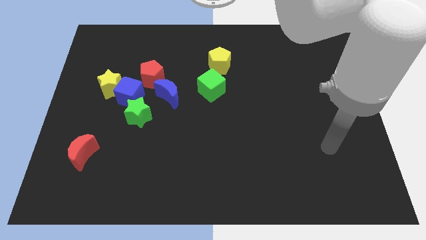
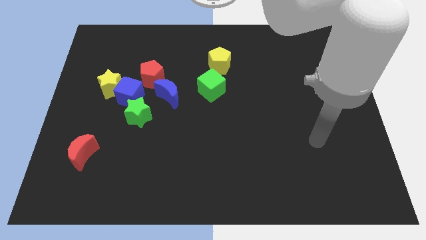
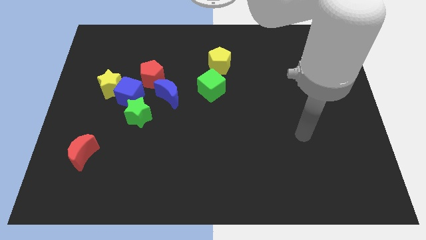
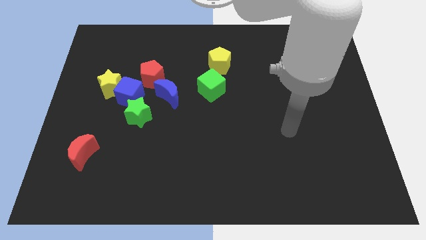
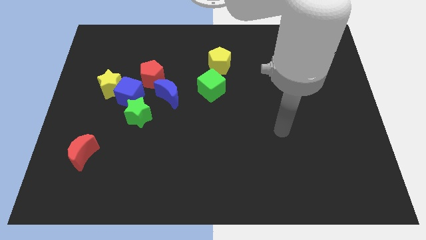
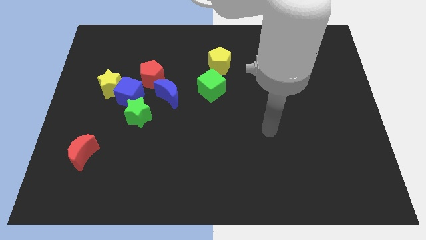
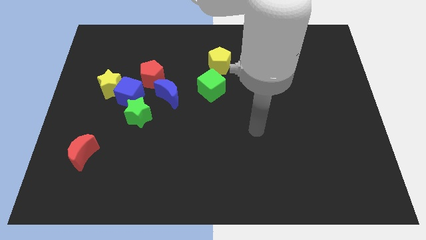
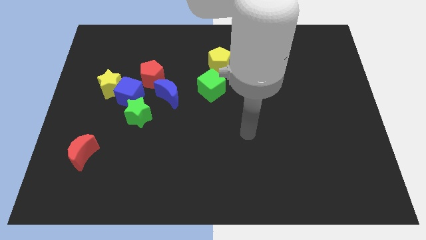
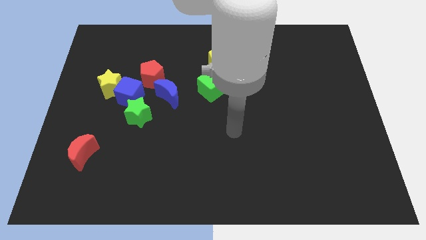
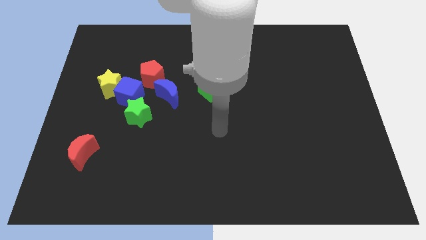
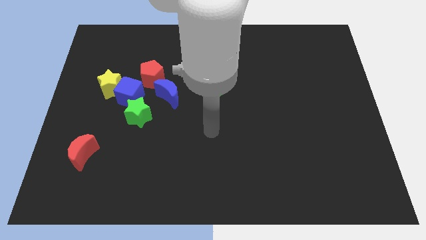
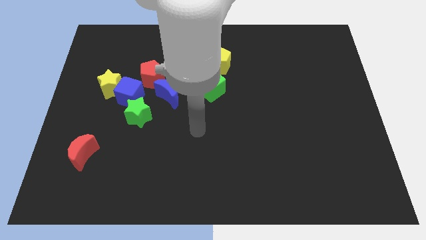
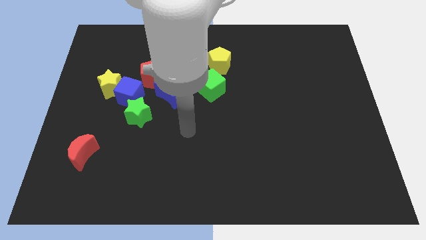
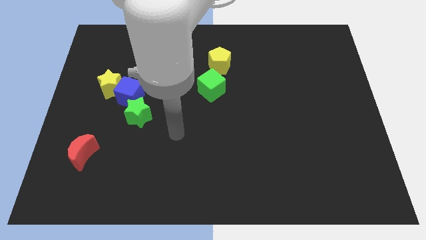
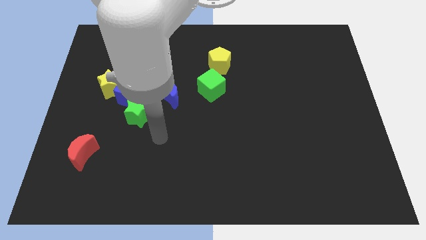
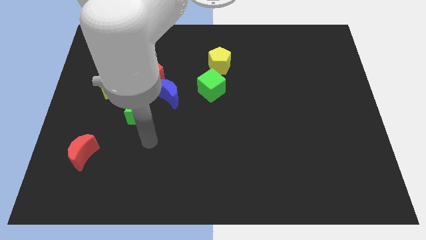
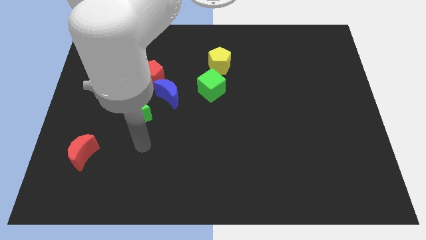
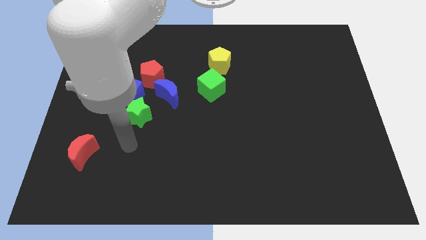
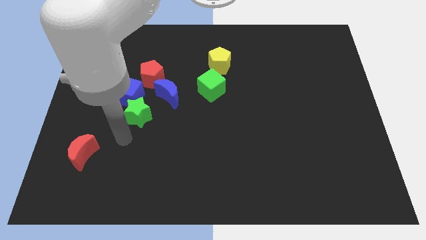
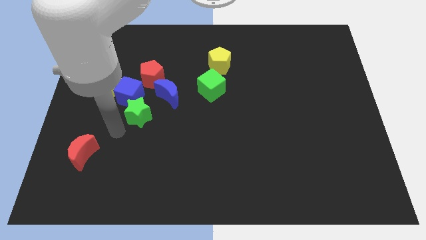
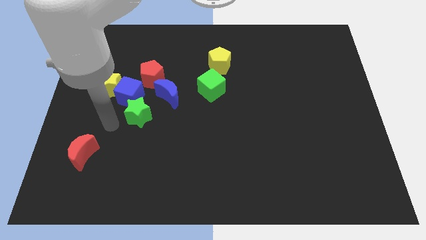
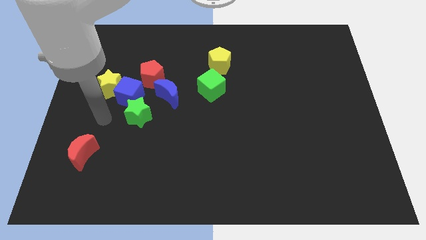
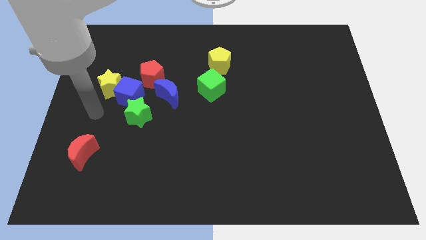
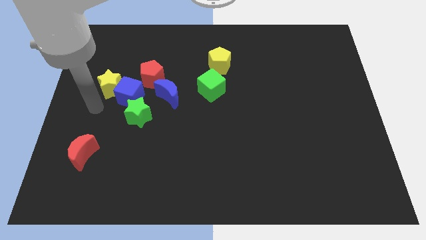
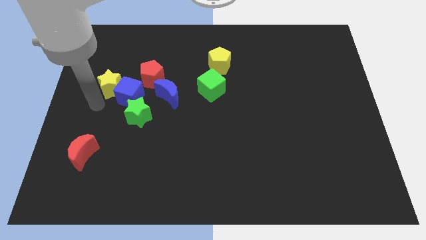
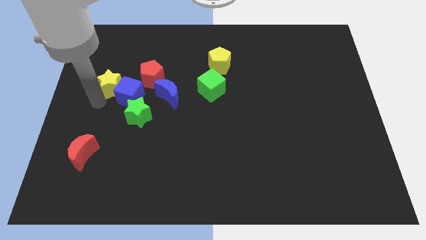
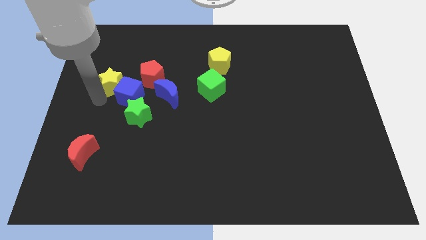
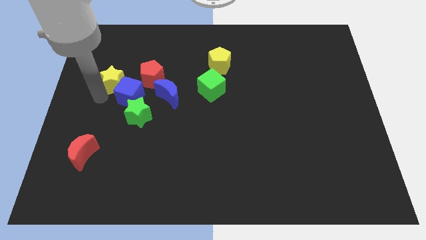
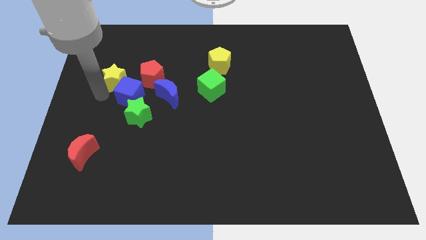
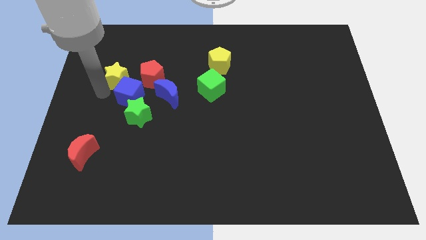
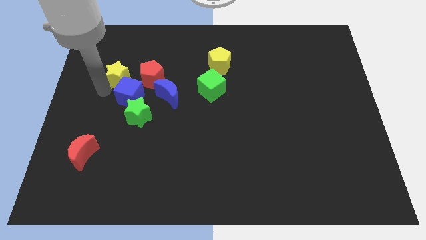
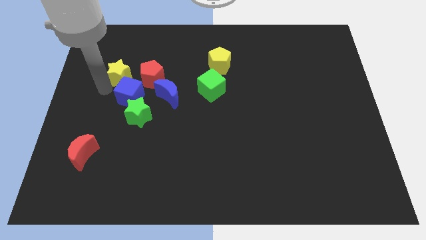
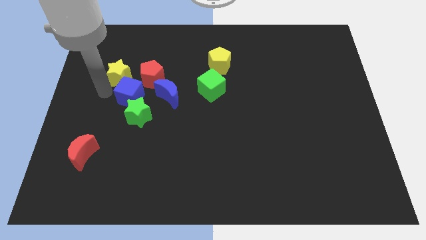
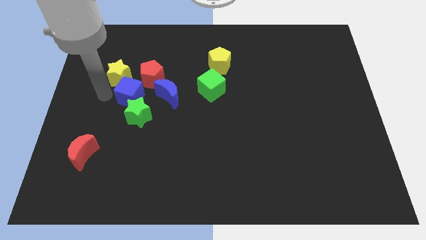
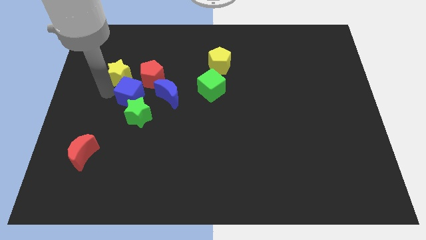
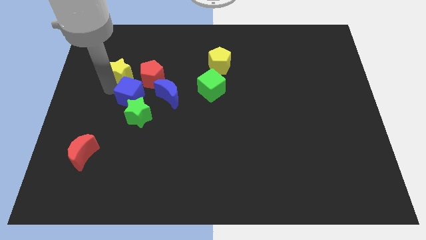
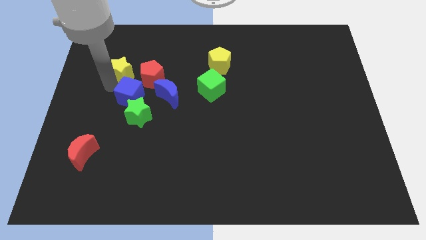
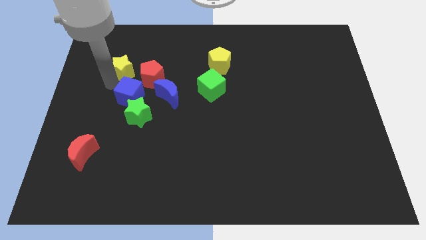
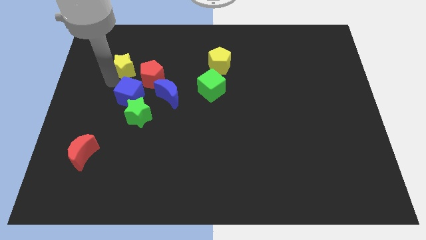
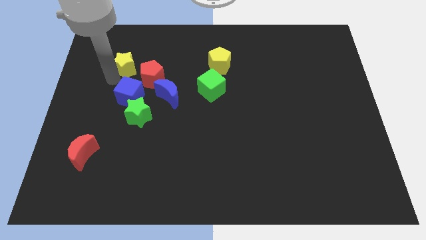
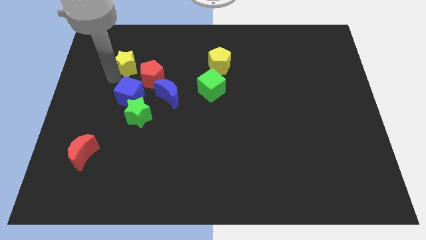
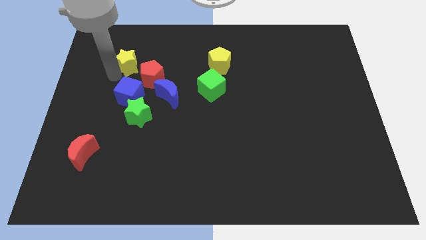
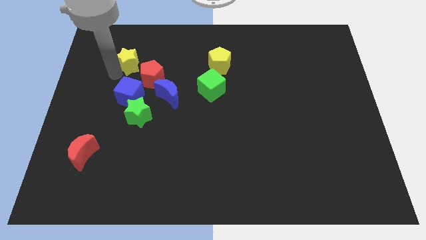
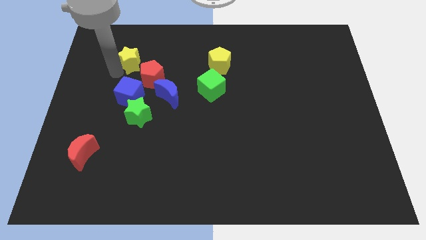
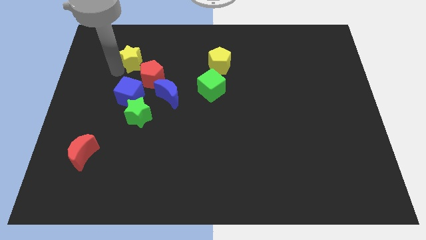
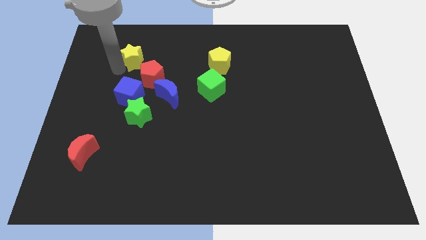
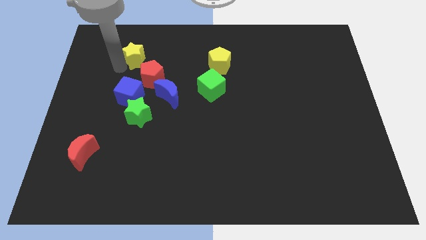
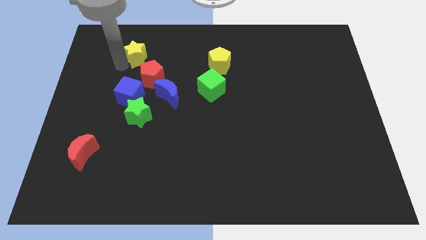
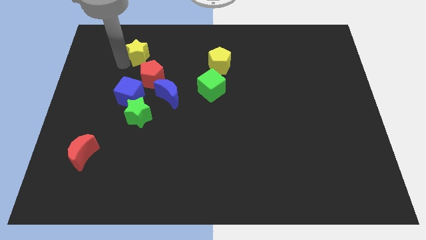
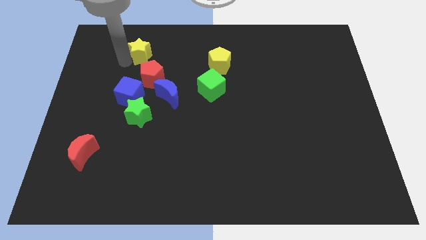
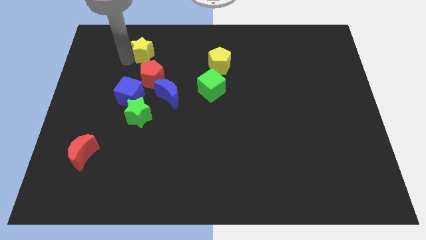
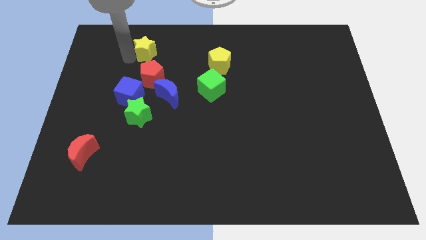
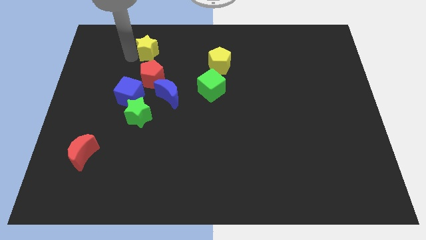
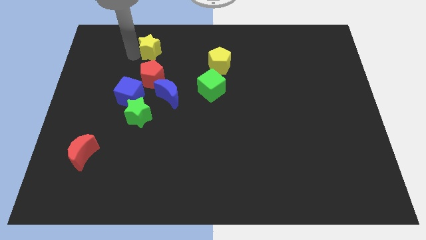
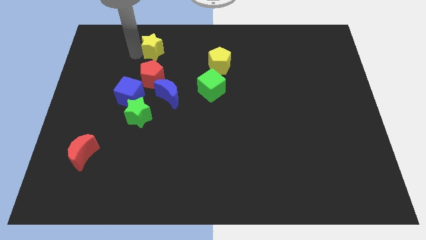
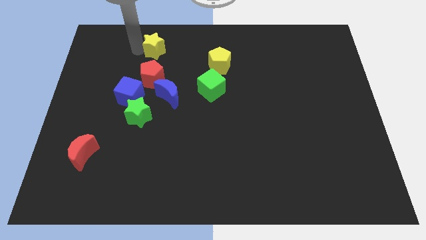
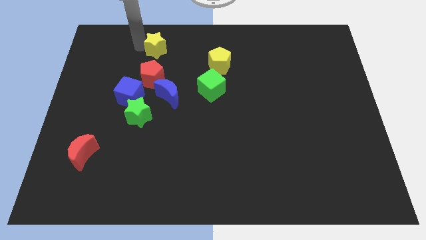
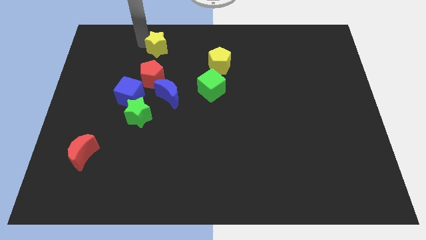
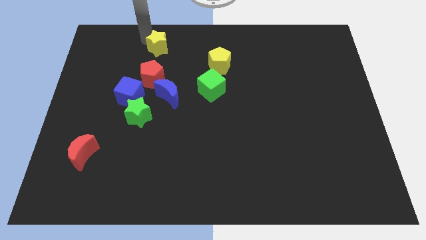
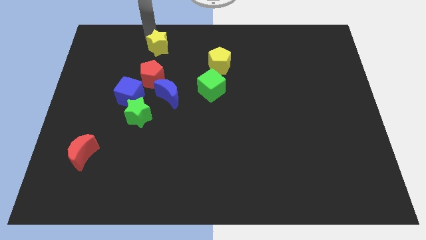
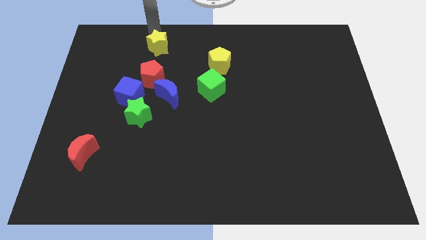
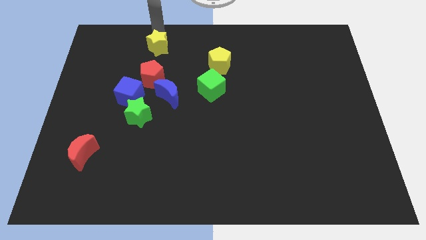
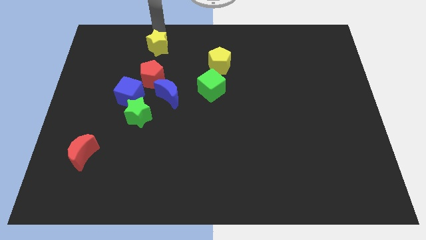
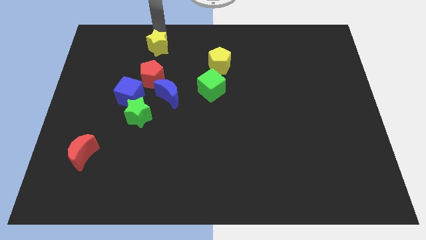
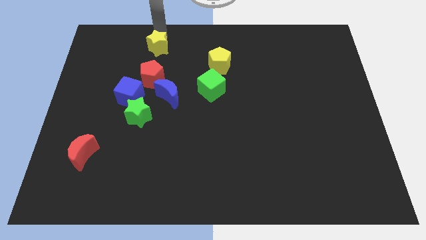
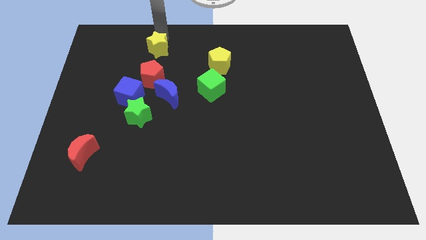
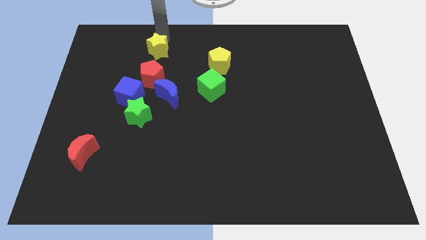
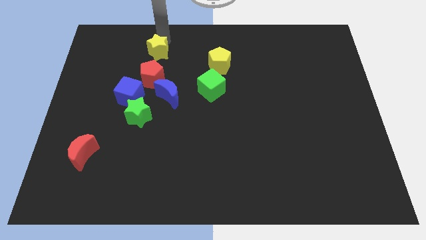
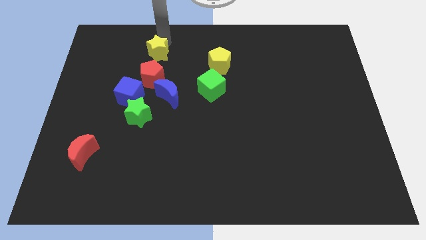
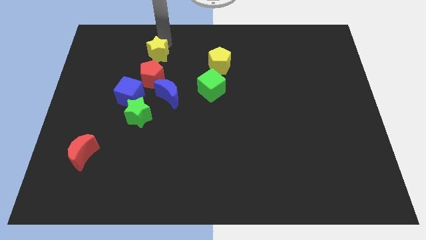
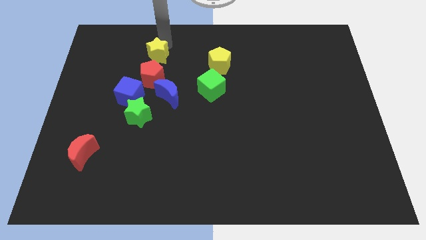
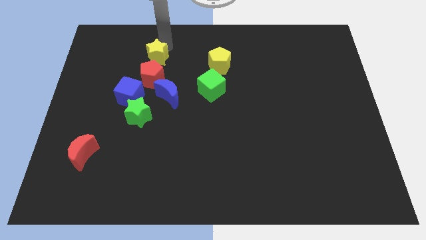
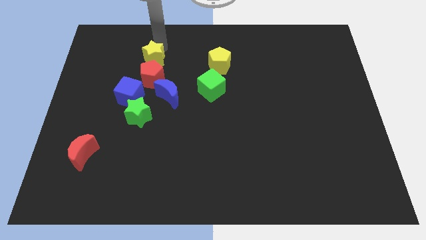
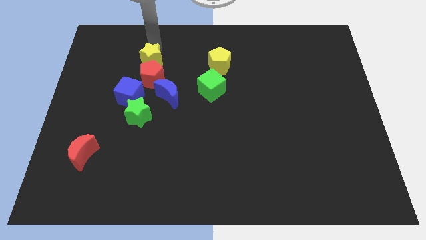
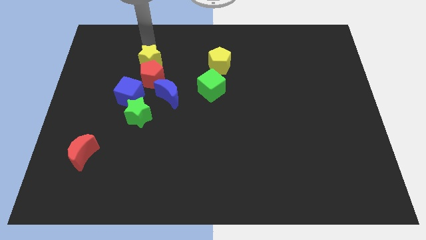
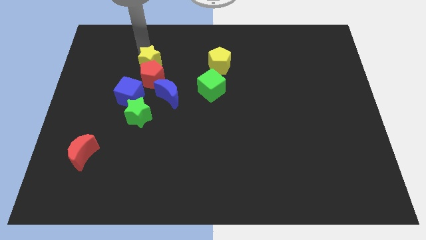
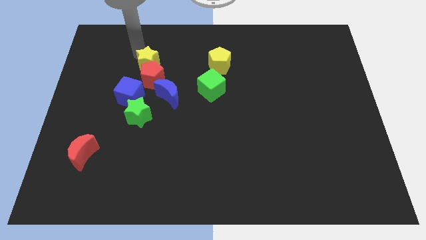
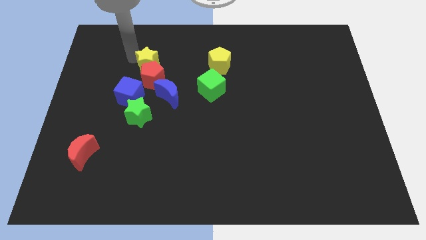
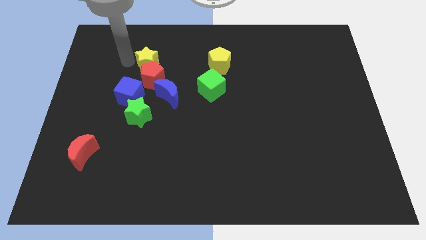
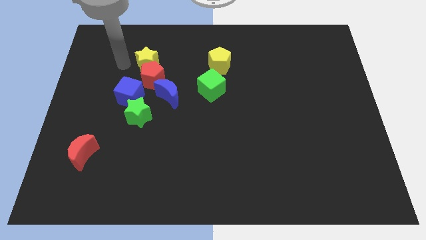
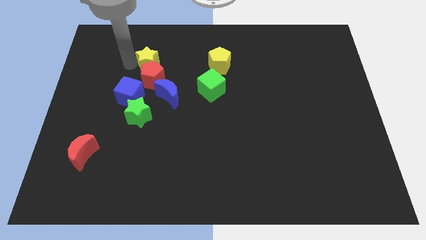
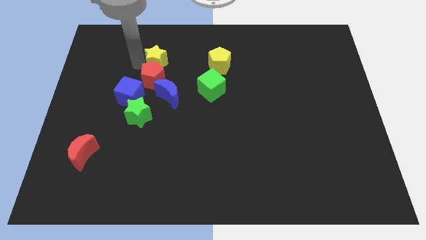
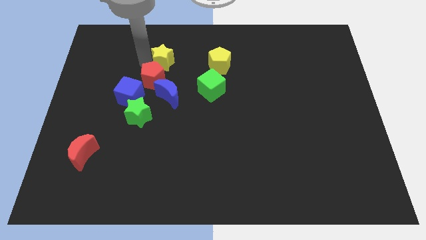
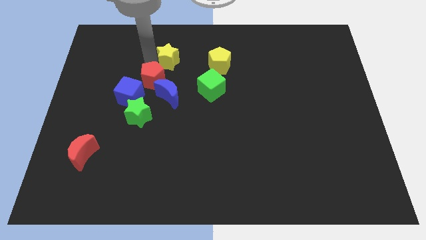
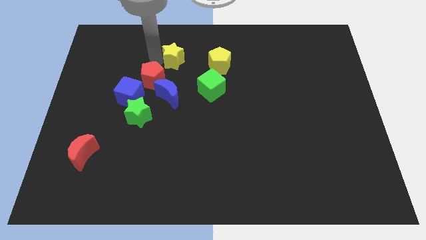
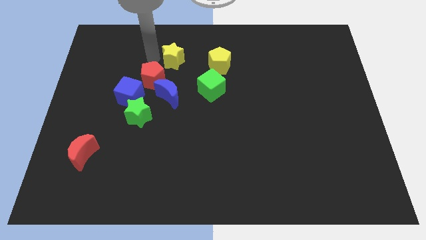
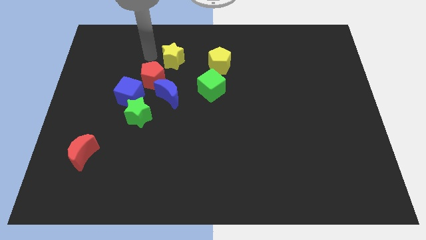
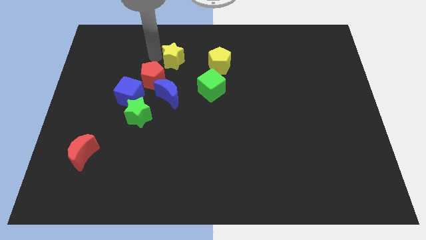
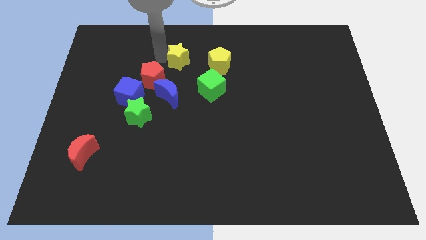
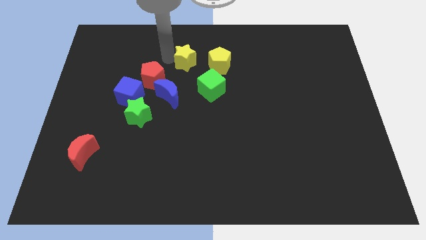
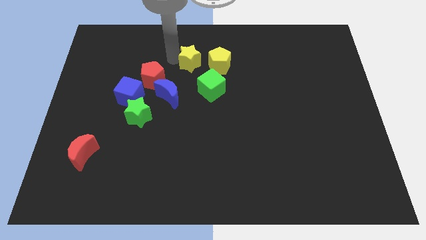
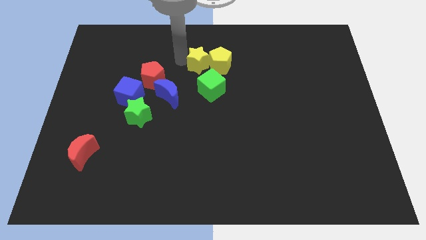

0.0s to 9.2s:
put the yellow star close to the yellow pentagon
